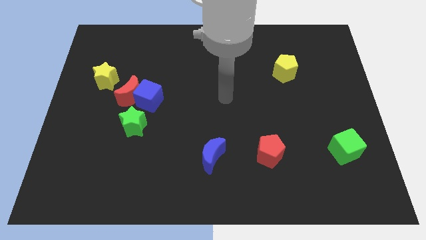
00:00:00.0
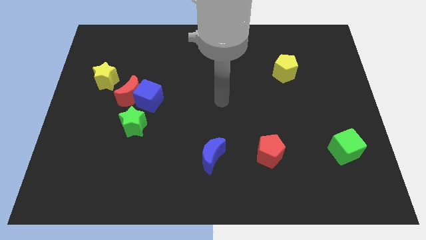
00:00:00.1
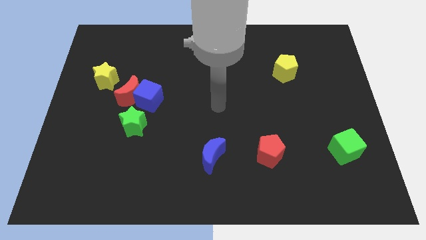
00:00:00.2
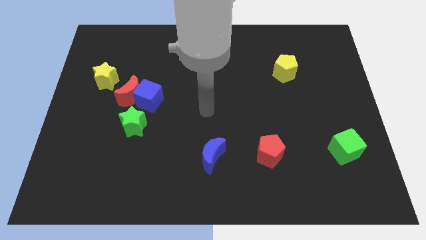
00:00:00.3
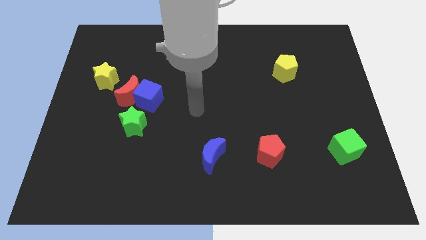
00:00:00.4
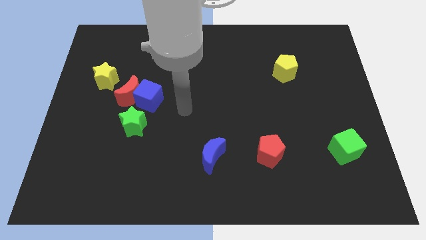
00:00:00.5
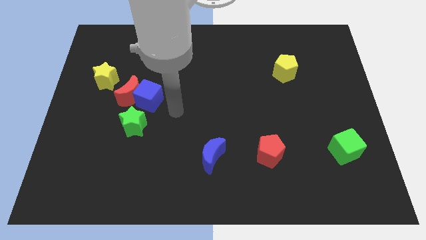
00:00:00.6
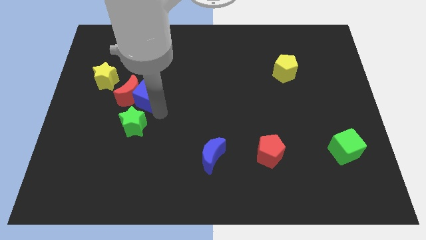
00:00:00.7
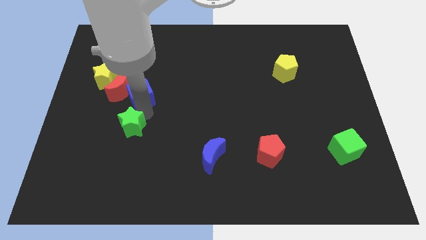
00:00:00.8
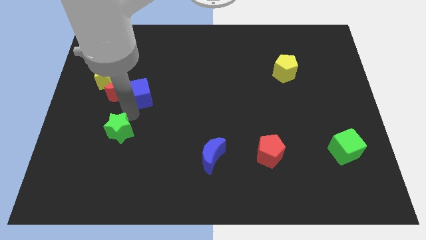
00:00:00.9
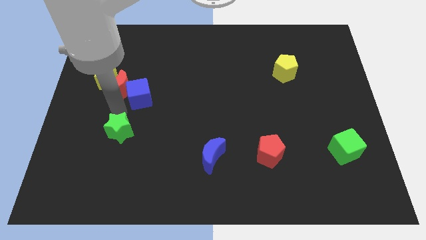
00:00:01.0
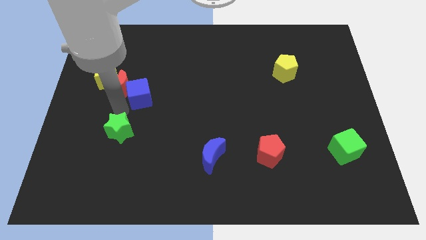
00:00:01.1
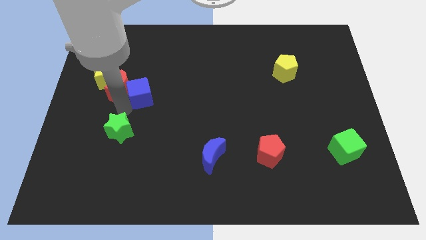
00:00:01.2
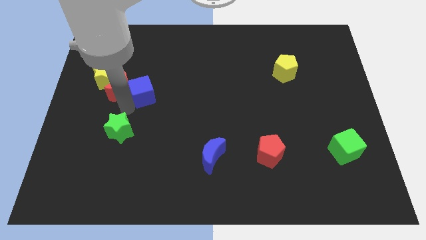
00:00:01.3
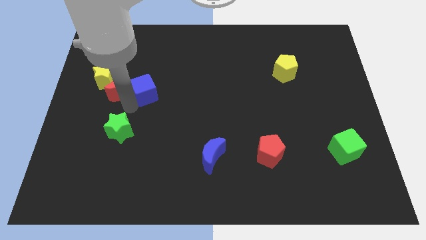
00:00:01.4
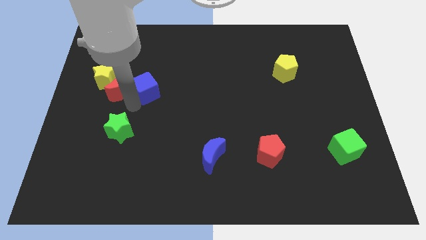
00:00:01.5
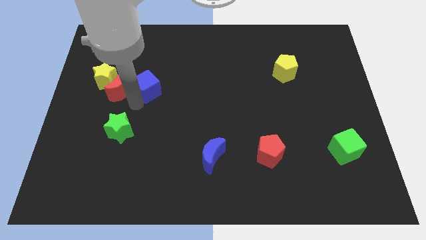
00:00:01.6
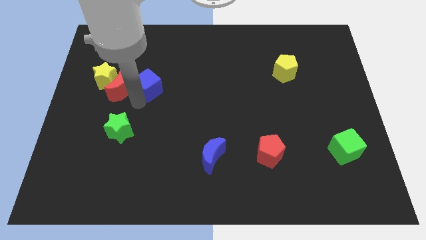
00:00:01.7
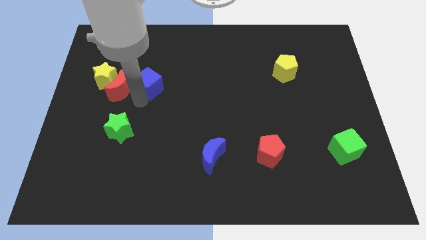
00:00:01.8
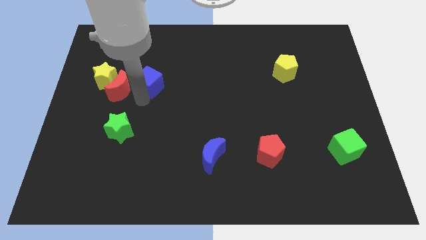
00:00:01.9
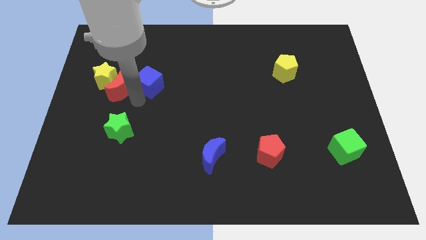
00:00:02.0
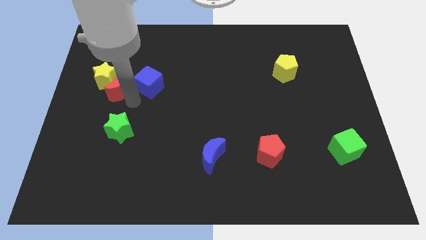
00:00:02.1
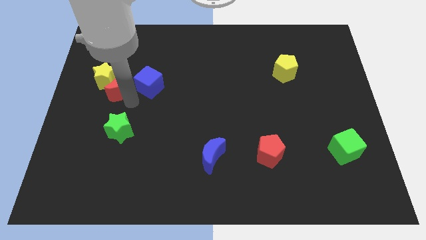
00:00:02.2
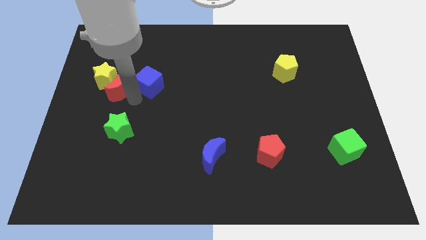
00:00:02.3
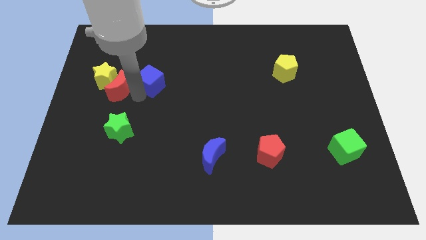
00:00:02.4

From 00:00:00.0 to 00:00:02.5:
separate the blue cube from the red moon and green star

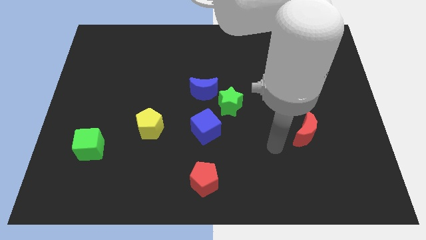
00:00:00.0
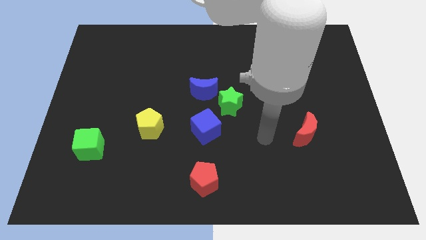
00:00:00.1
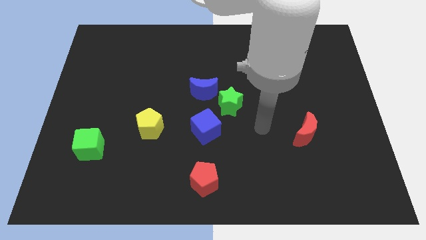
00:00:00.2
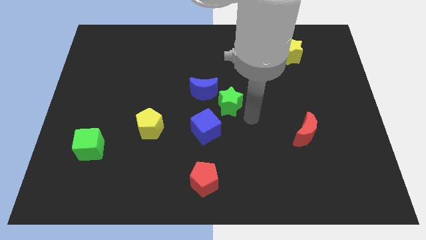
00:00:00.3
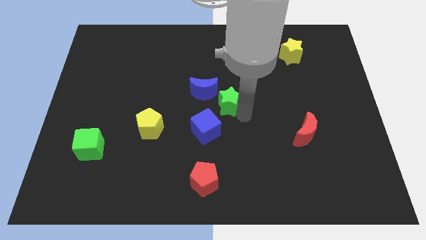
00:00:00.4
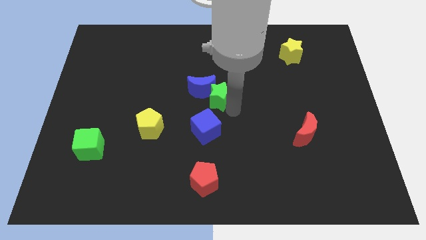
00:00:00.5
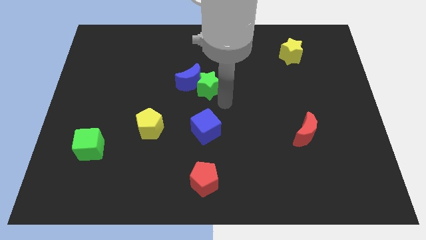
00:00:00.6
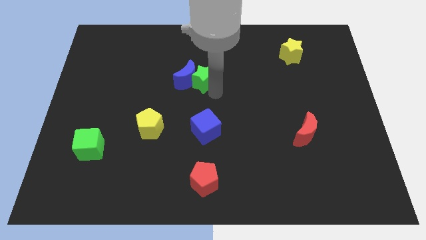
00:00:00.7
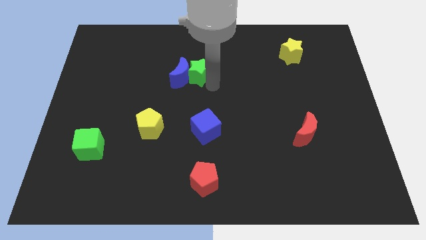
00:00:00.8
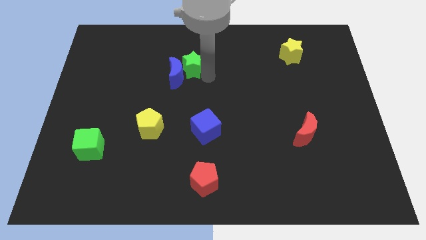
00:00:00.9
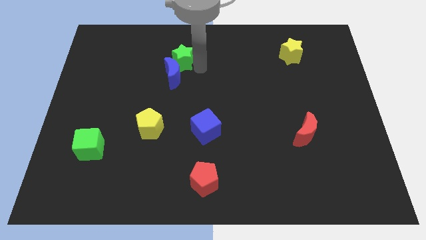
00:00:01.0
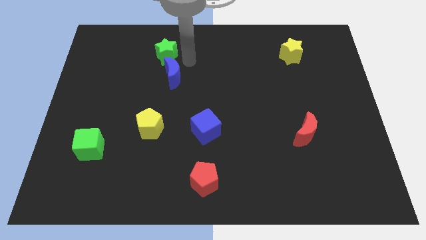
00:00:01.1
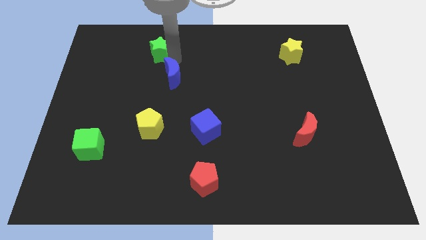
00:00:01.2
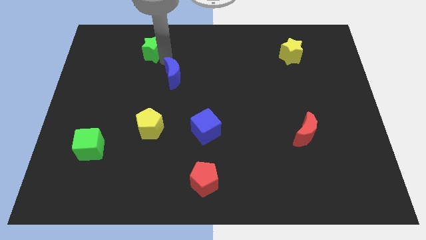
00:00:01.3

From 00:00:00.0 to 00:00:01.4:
pull the blue moon apart from the green star

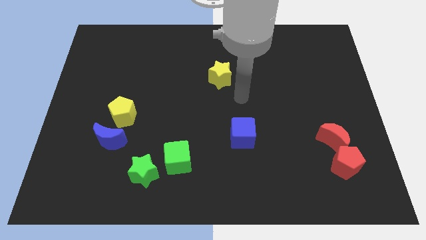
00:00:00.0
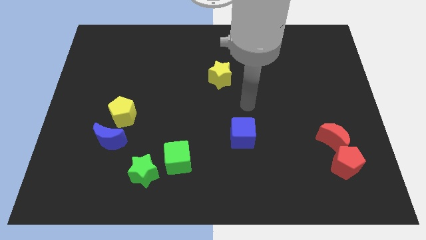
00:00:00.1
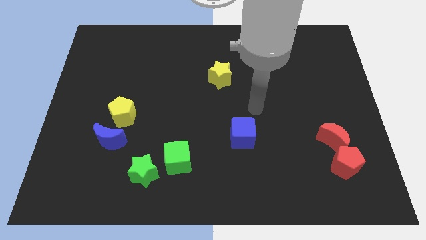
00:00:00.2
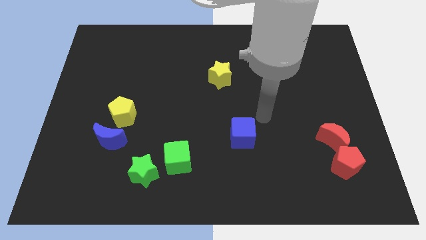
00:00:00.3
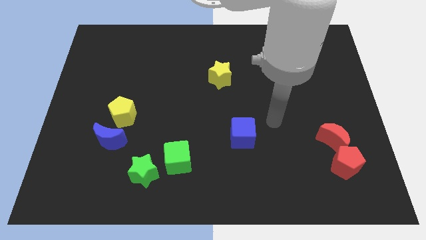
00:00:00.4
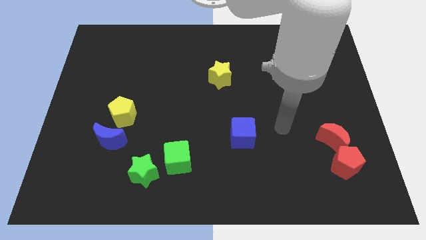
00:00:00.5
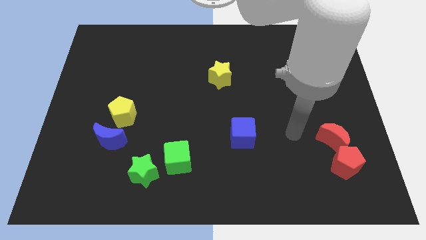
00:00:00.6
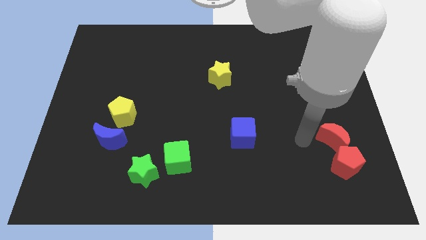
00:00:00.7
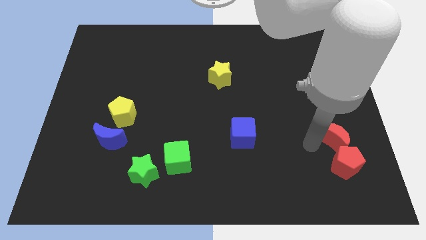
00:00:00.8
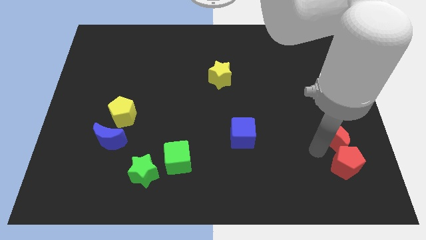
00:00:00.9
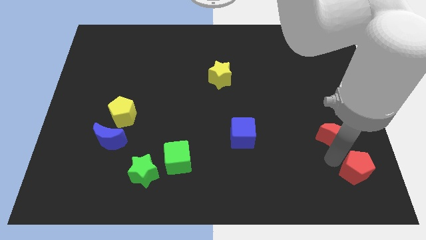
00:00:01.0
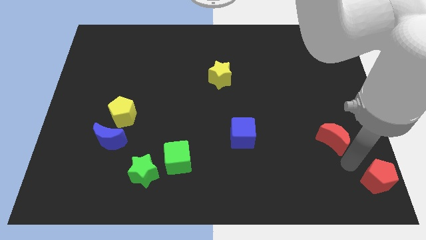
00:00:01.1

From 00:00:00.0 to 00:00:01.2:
move the red moon away from the red pentagon

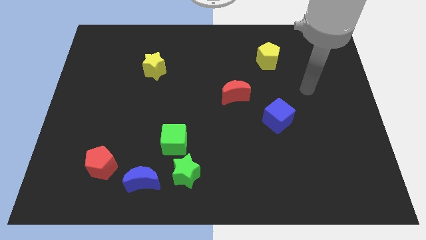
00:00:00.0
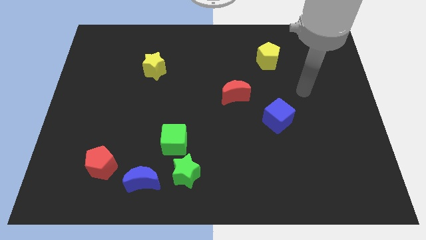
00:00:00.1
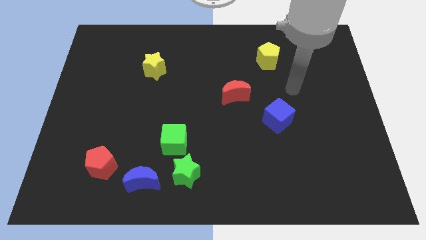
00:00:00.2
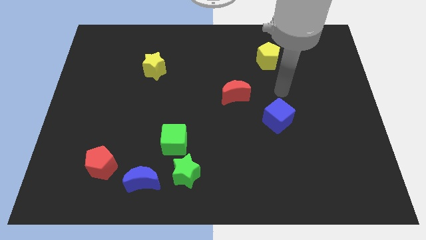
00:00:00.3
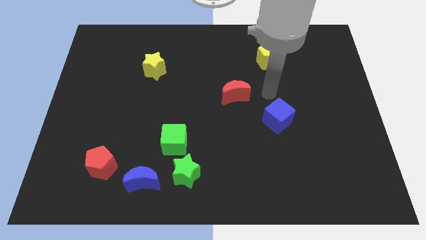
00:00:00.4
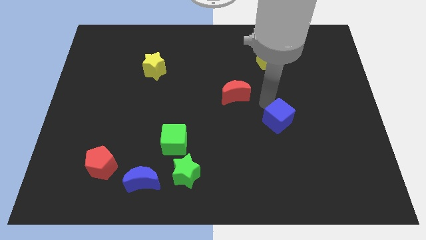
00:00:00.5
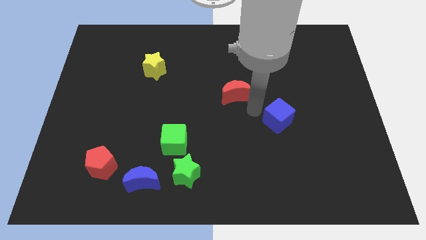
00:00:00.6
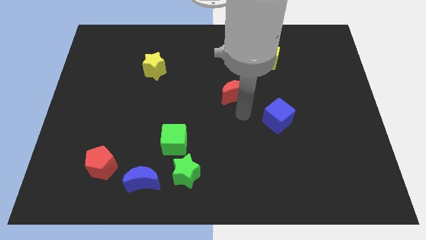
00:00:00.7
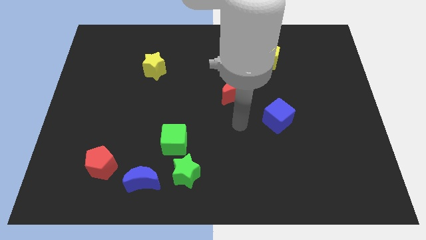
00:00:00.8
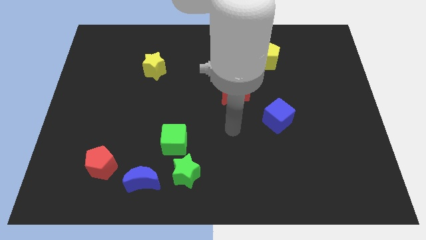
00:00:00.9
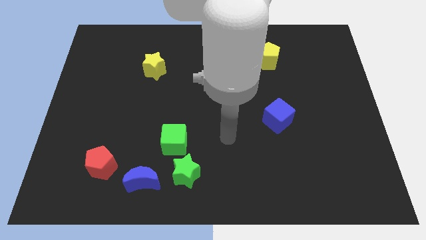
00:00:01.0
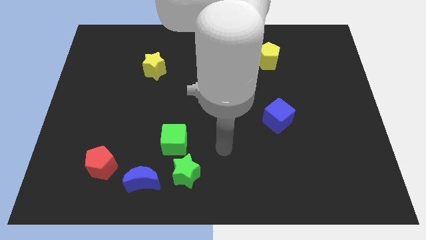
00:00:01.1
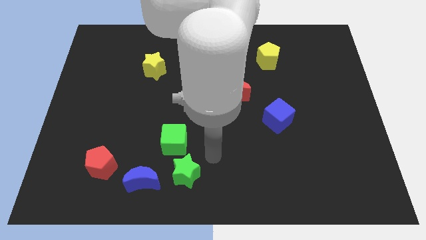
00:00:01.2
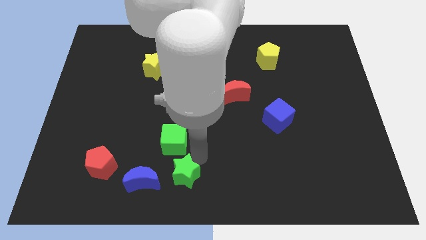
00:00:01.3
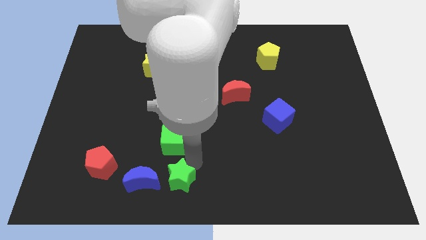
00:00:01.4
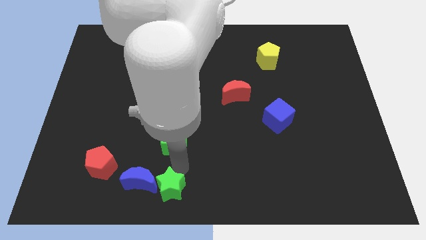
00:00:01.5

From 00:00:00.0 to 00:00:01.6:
separate the green cube from the green star

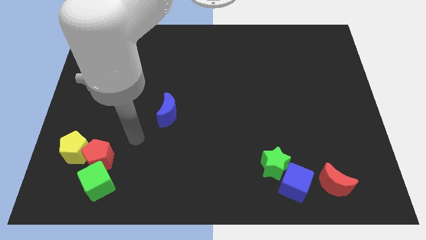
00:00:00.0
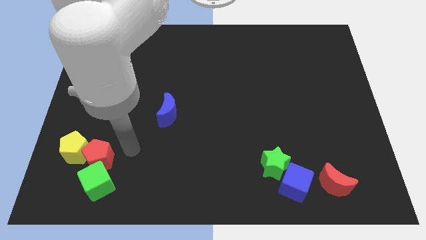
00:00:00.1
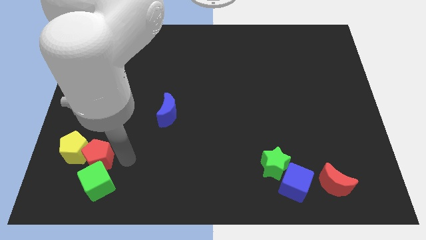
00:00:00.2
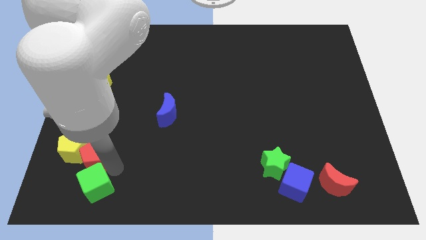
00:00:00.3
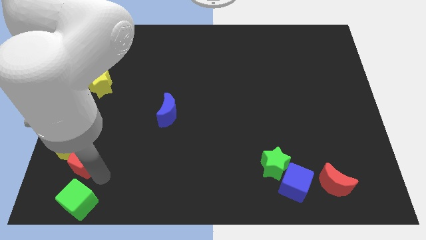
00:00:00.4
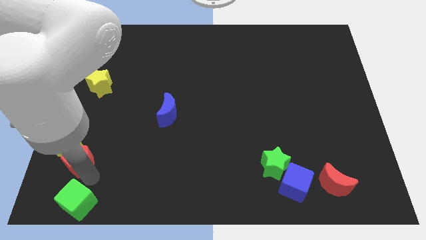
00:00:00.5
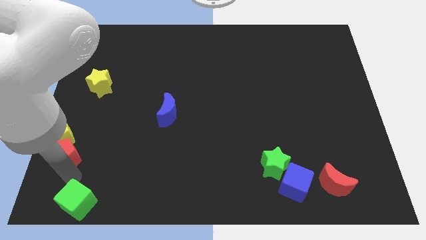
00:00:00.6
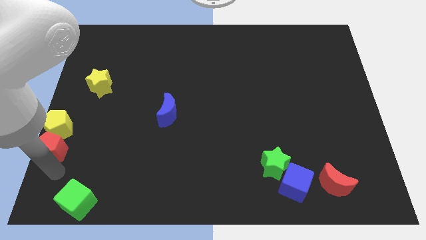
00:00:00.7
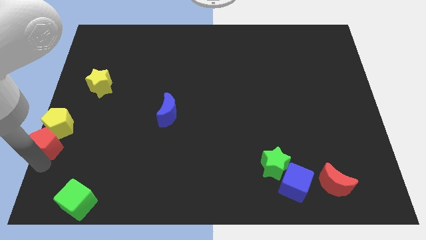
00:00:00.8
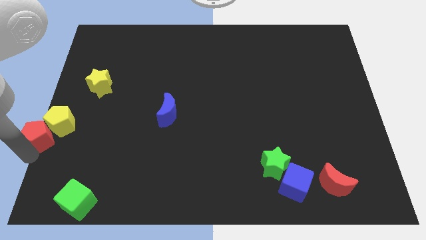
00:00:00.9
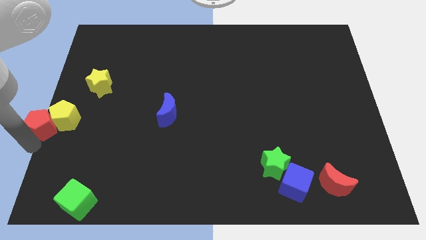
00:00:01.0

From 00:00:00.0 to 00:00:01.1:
separate the red pentagon from the yellow pentagon and green cube

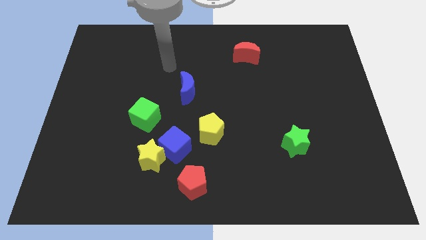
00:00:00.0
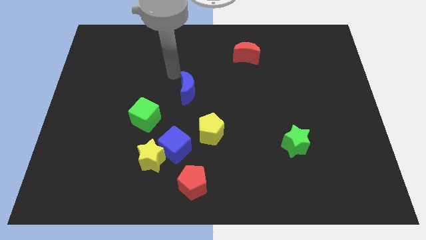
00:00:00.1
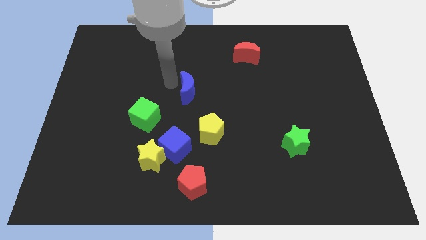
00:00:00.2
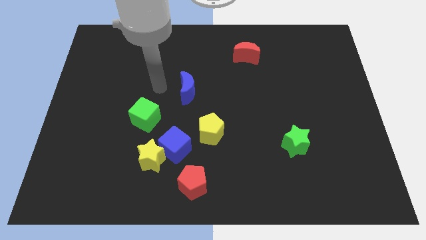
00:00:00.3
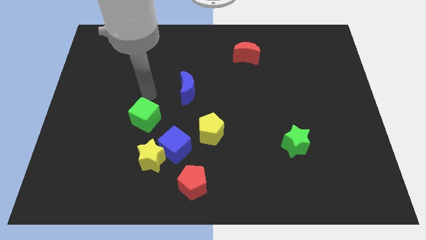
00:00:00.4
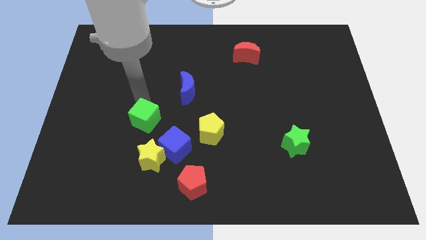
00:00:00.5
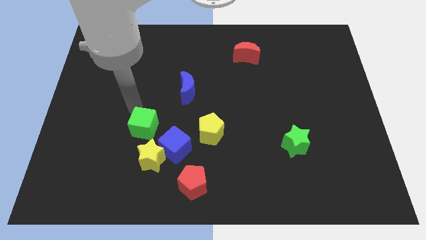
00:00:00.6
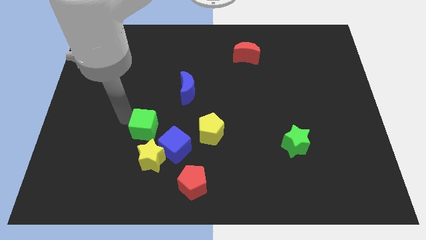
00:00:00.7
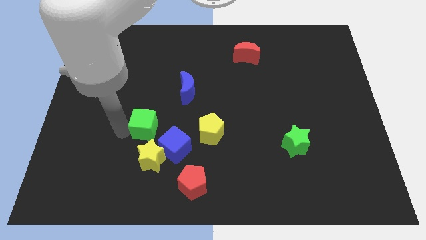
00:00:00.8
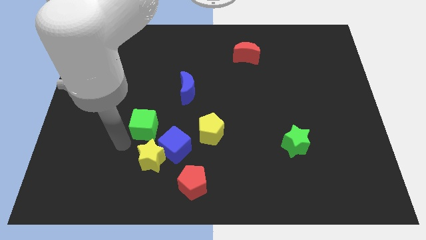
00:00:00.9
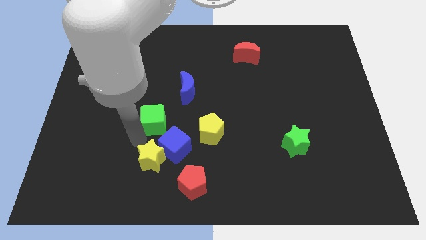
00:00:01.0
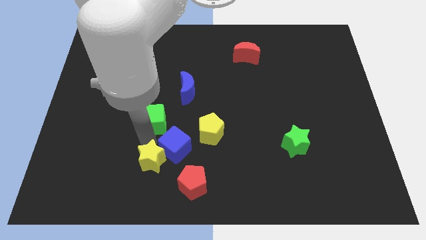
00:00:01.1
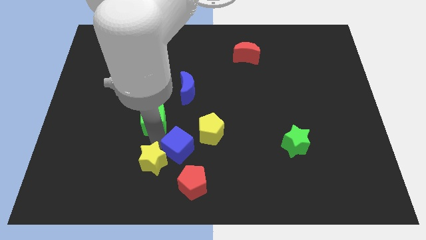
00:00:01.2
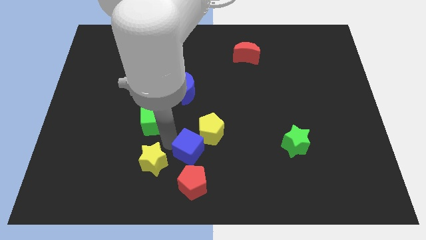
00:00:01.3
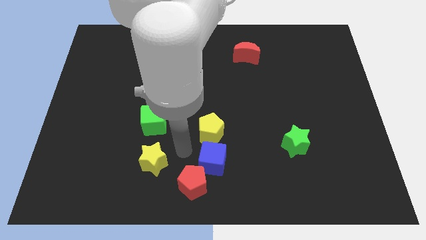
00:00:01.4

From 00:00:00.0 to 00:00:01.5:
pull the yellow star apart from the blue cube
